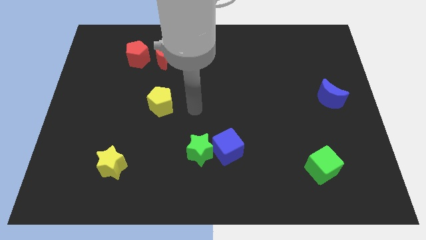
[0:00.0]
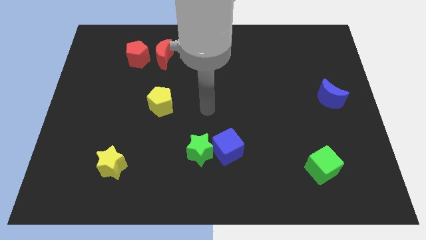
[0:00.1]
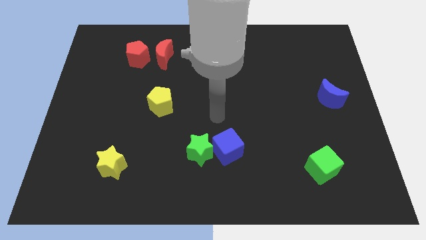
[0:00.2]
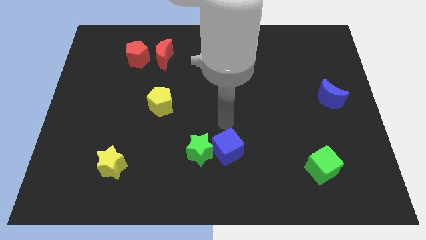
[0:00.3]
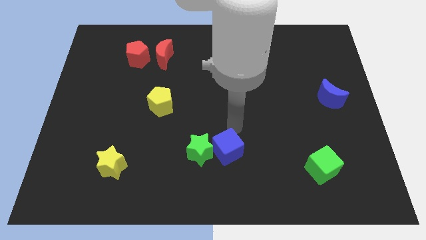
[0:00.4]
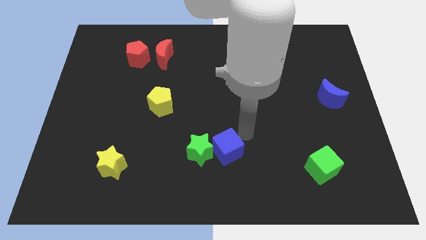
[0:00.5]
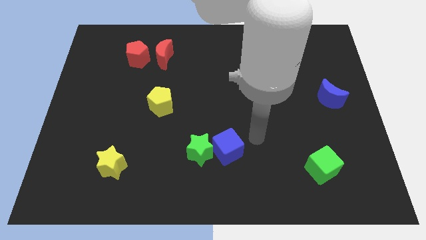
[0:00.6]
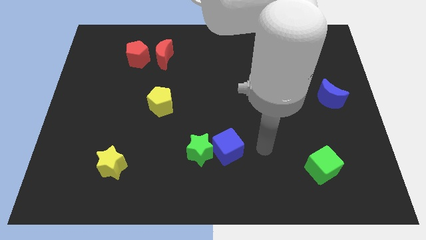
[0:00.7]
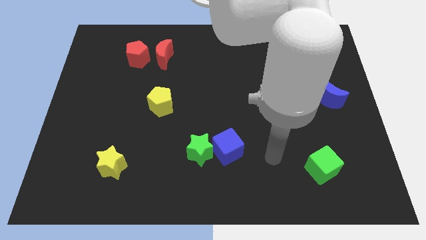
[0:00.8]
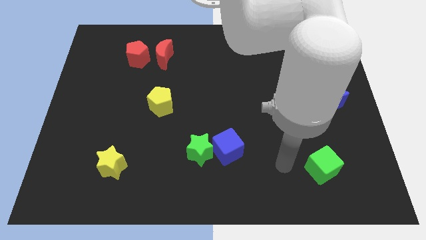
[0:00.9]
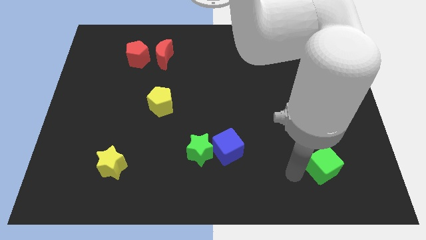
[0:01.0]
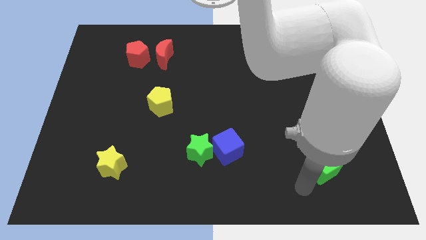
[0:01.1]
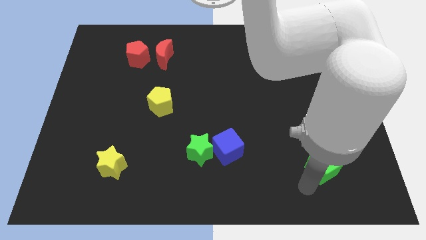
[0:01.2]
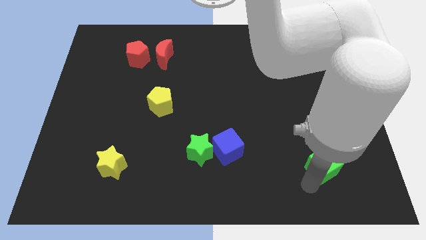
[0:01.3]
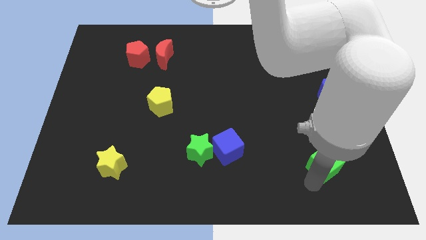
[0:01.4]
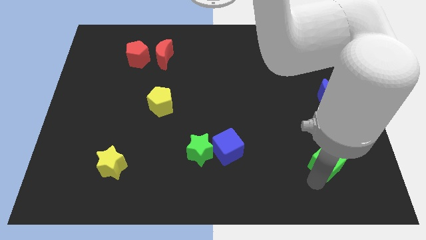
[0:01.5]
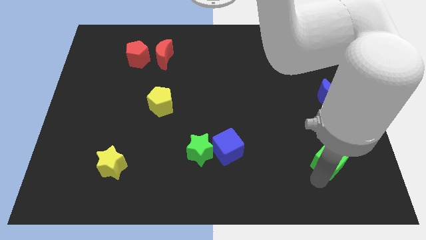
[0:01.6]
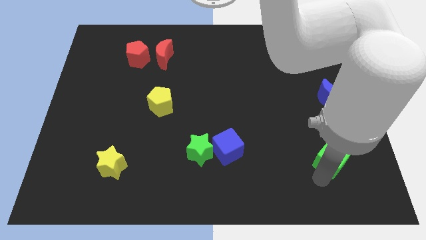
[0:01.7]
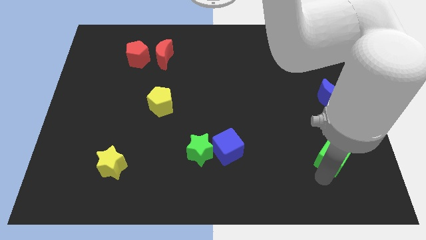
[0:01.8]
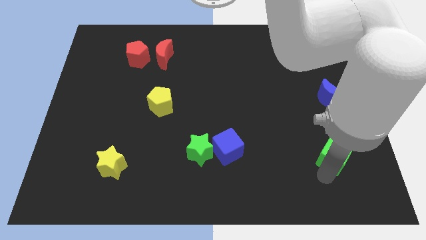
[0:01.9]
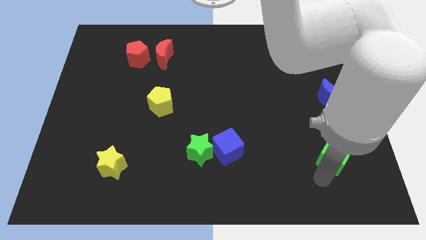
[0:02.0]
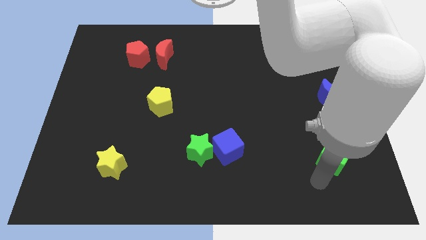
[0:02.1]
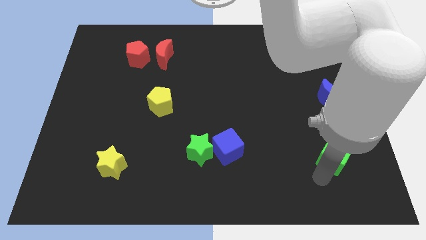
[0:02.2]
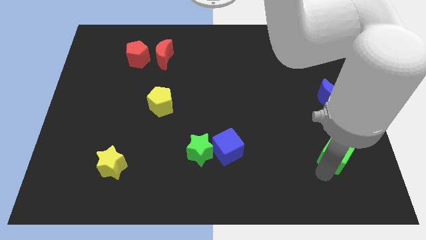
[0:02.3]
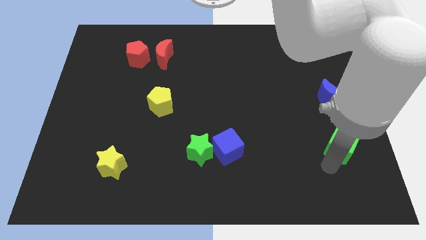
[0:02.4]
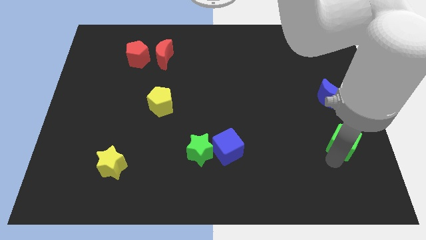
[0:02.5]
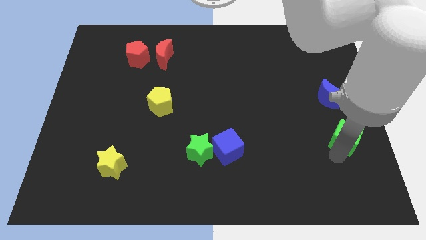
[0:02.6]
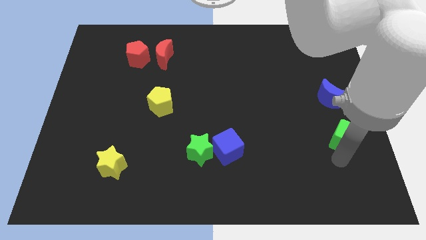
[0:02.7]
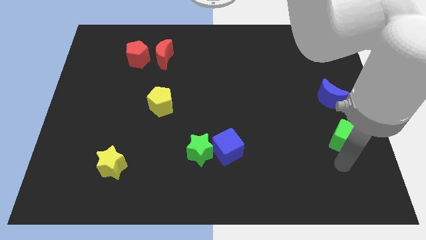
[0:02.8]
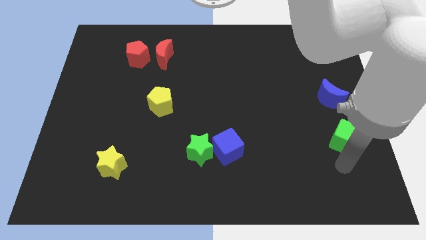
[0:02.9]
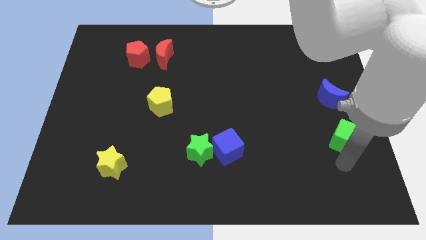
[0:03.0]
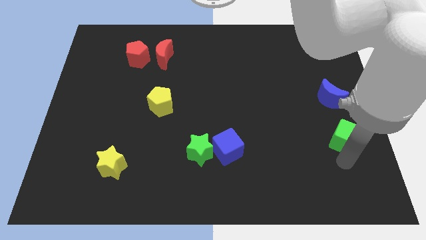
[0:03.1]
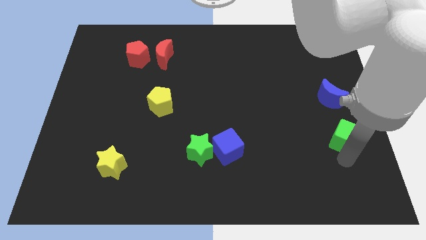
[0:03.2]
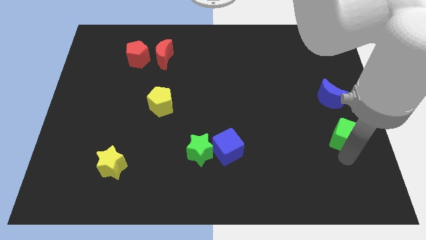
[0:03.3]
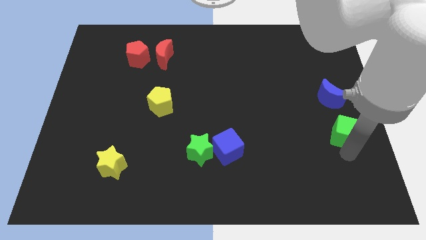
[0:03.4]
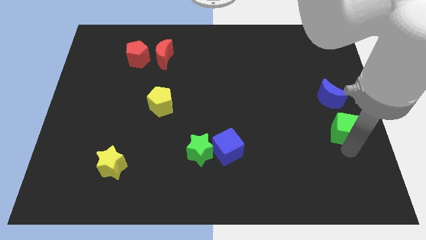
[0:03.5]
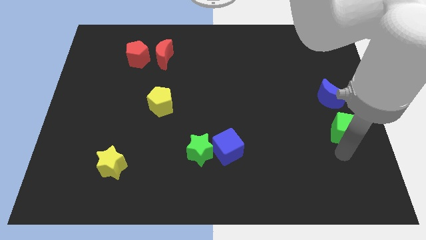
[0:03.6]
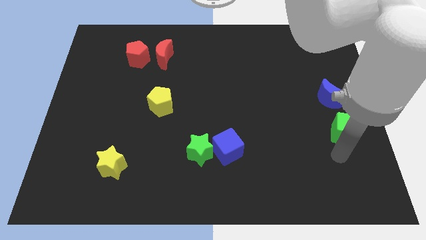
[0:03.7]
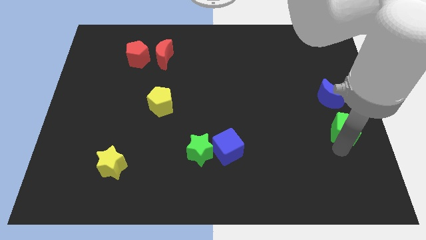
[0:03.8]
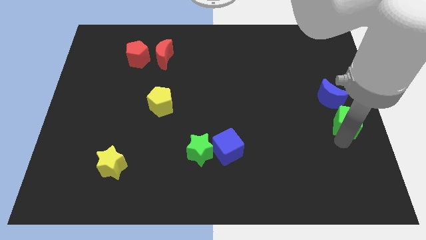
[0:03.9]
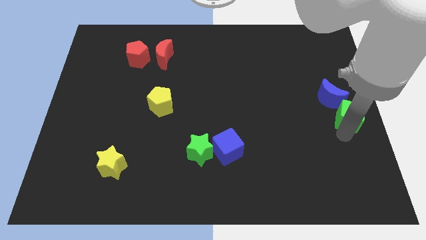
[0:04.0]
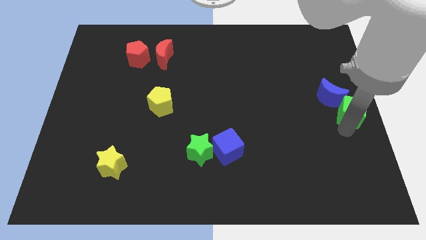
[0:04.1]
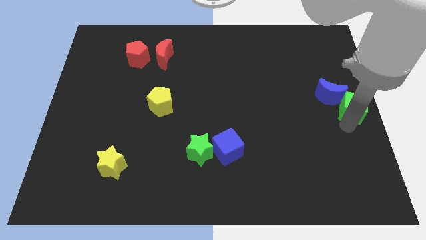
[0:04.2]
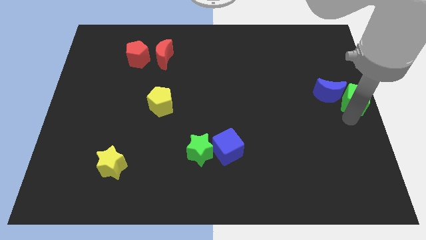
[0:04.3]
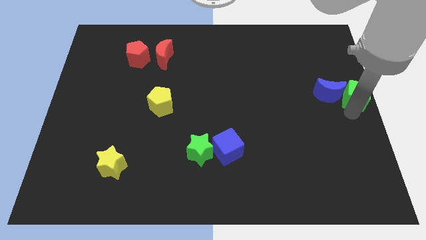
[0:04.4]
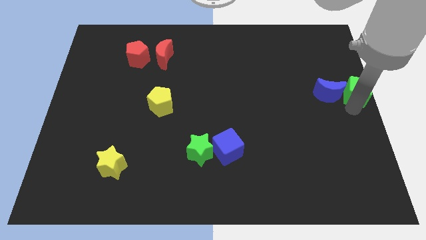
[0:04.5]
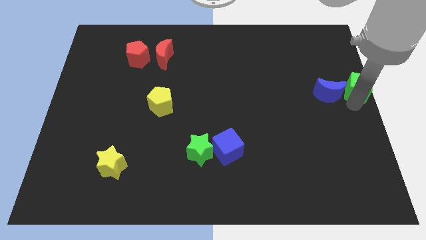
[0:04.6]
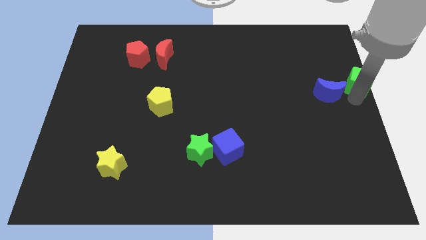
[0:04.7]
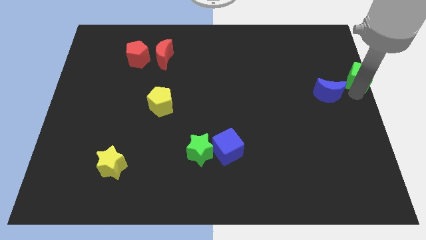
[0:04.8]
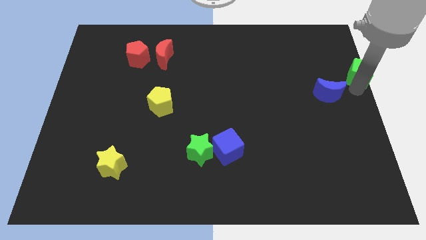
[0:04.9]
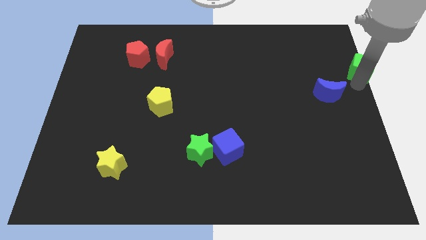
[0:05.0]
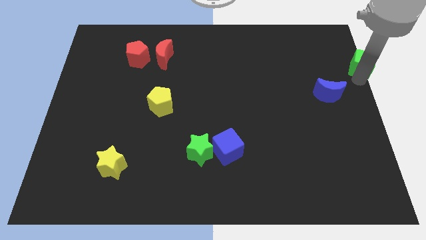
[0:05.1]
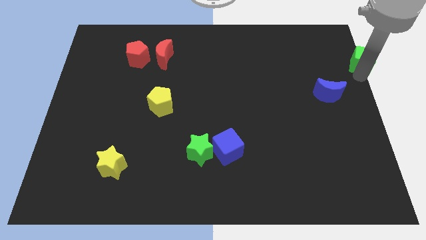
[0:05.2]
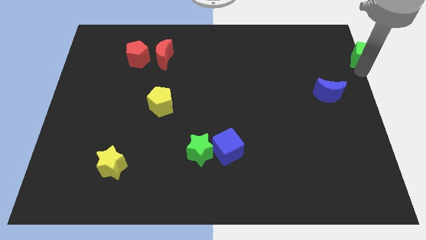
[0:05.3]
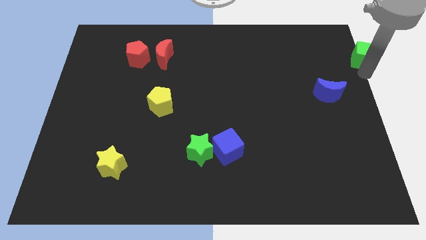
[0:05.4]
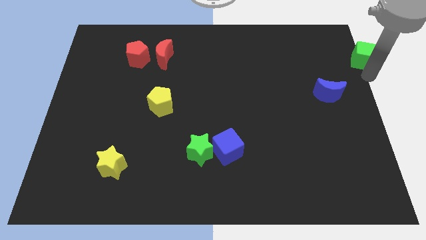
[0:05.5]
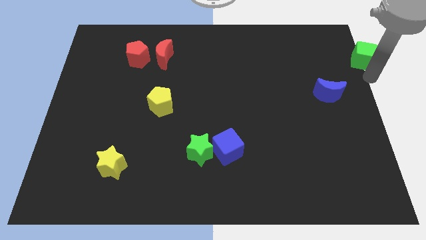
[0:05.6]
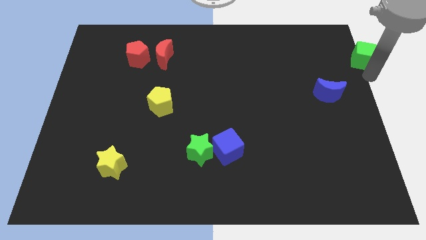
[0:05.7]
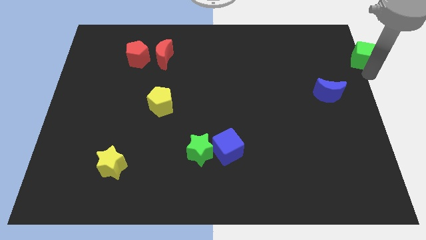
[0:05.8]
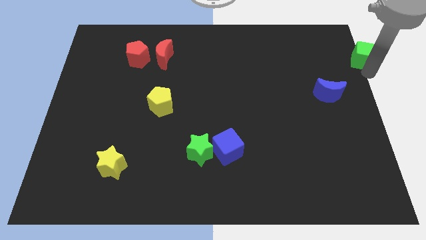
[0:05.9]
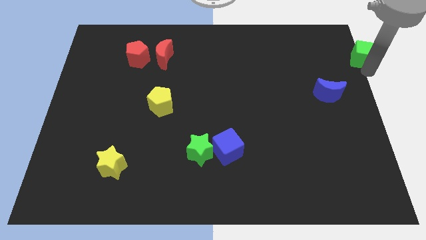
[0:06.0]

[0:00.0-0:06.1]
slide the green cube to the top right corner
